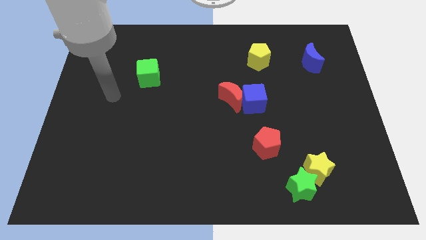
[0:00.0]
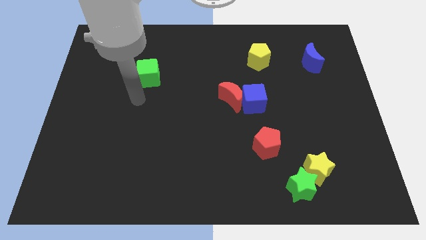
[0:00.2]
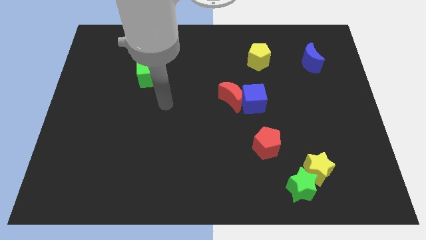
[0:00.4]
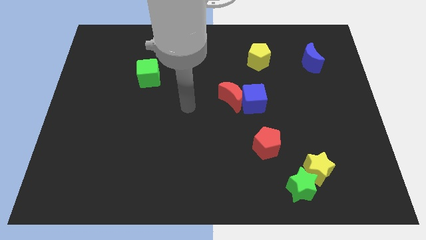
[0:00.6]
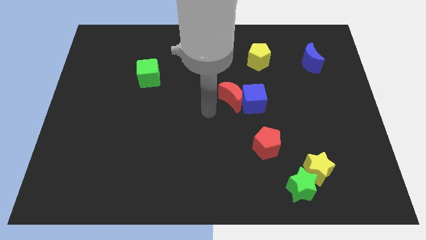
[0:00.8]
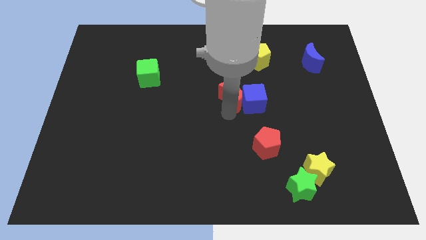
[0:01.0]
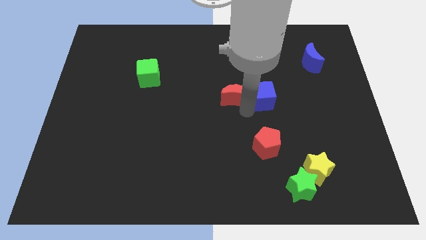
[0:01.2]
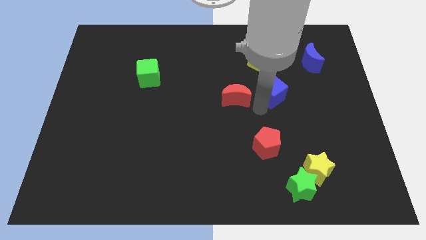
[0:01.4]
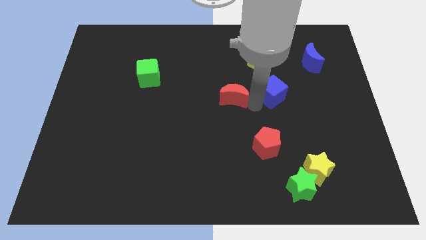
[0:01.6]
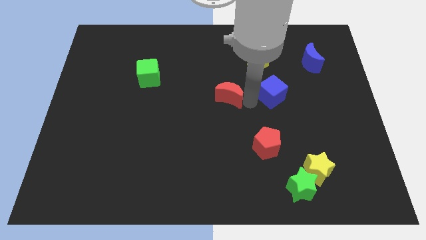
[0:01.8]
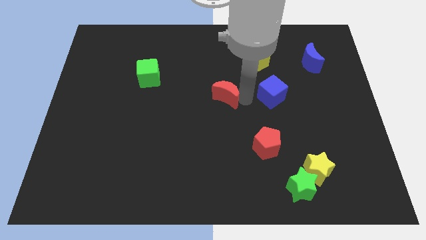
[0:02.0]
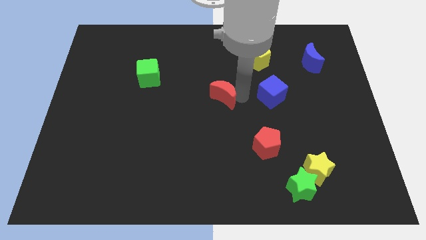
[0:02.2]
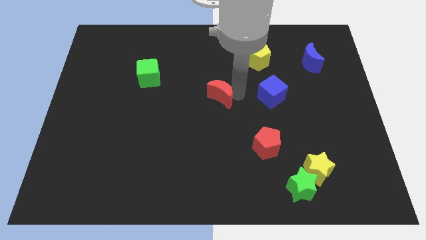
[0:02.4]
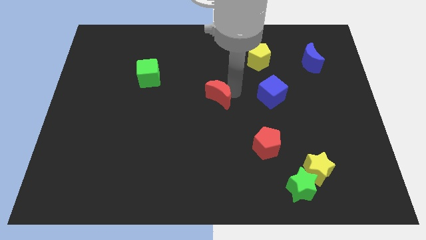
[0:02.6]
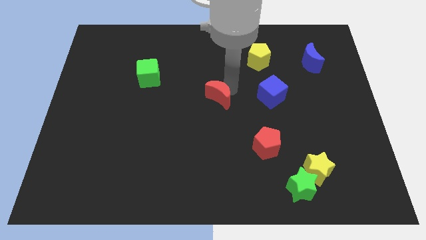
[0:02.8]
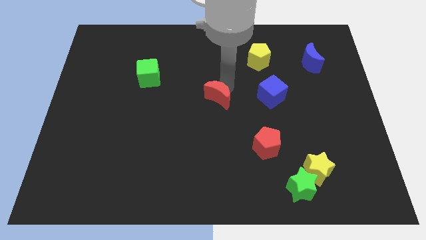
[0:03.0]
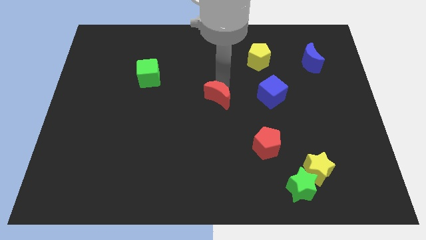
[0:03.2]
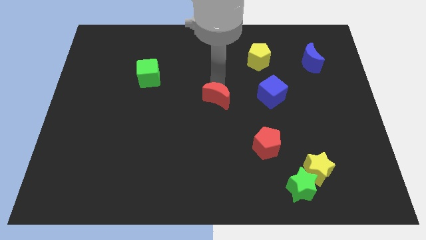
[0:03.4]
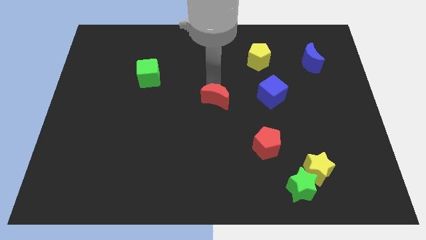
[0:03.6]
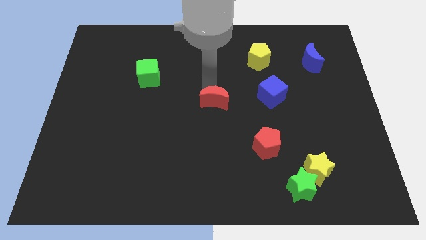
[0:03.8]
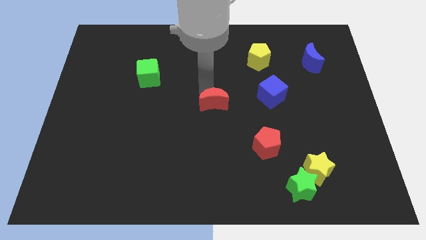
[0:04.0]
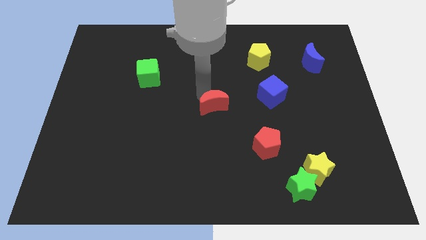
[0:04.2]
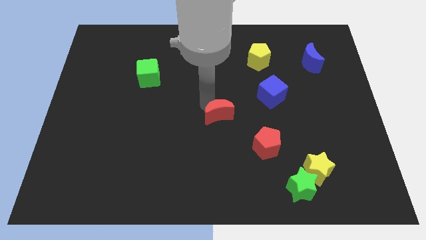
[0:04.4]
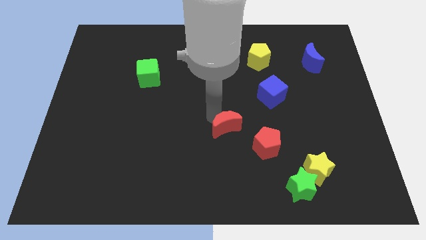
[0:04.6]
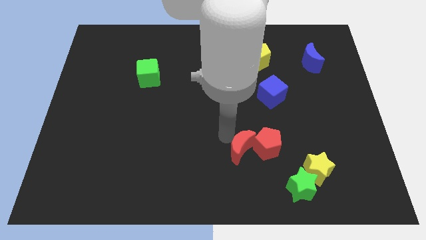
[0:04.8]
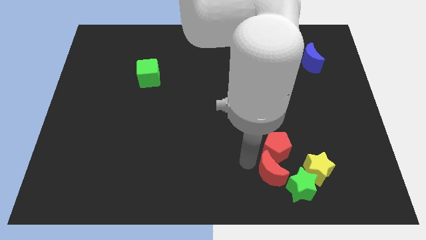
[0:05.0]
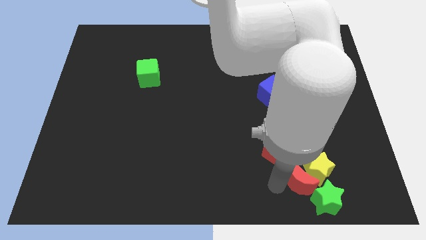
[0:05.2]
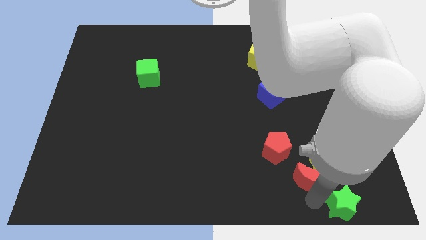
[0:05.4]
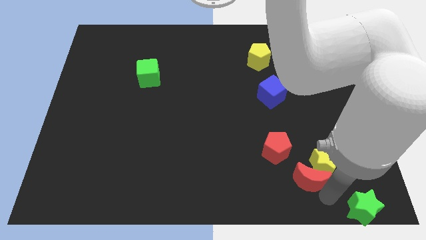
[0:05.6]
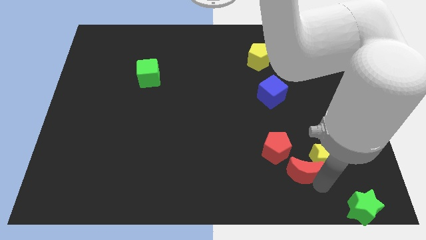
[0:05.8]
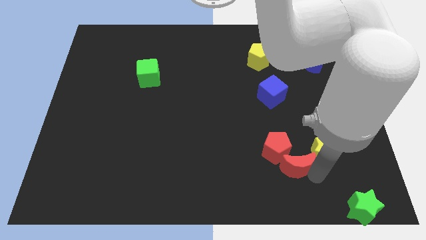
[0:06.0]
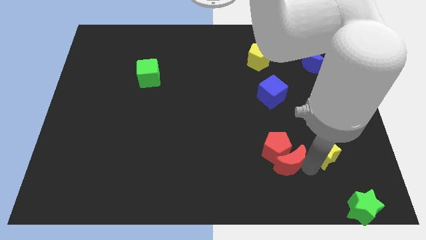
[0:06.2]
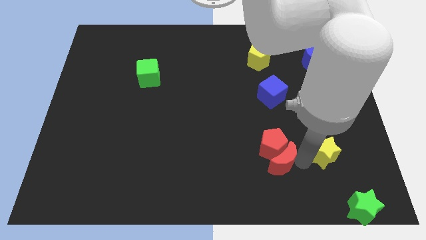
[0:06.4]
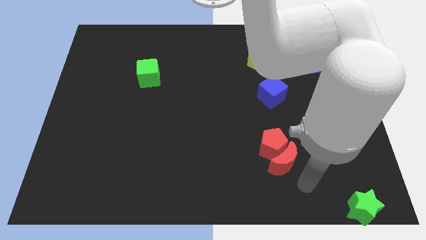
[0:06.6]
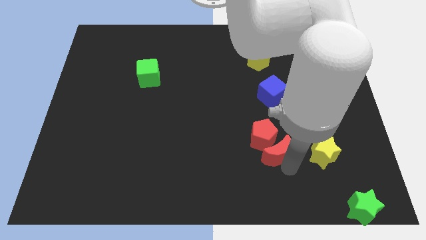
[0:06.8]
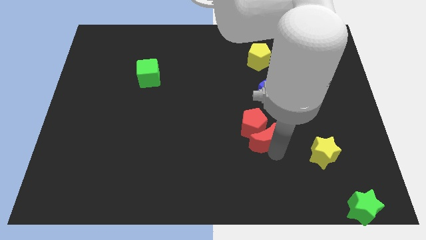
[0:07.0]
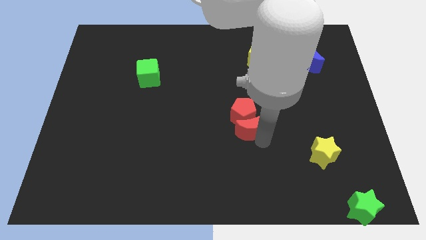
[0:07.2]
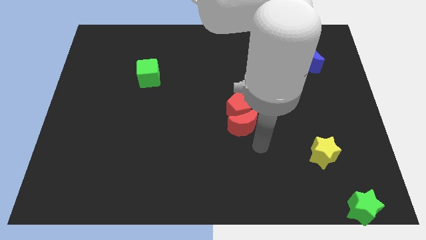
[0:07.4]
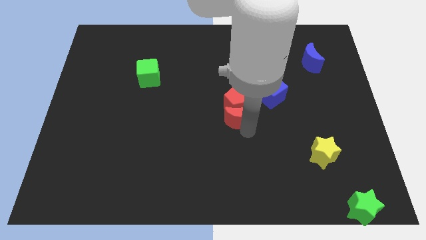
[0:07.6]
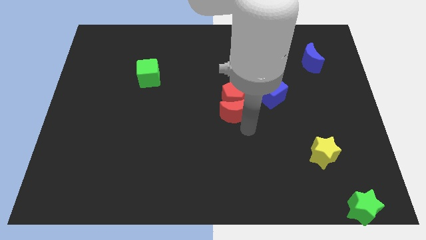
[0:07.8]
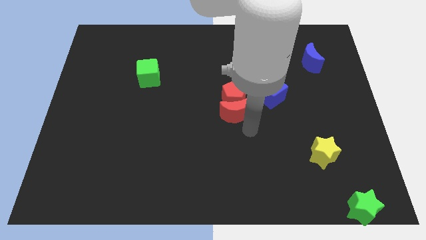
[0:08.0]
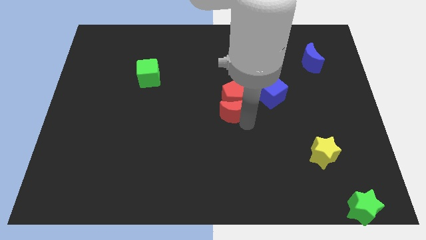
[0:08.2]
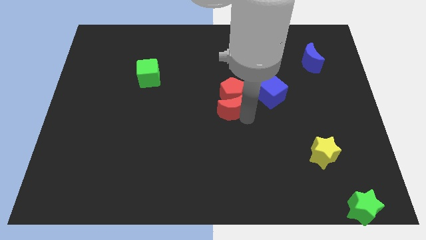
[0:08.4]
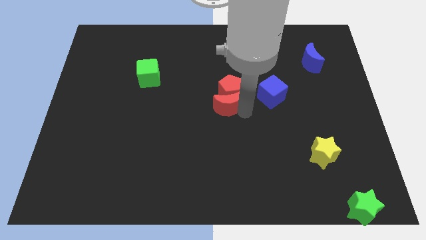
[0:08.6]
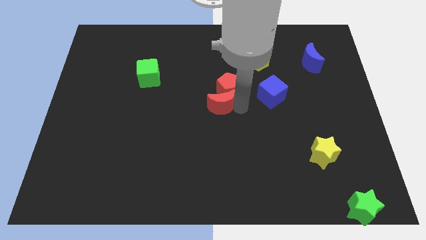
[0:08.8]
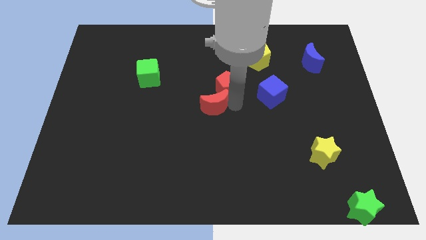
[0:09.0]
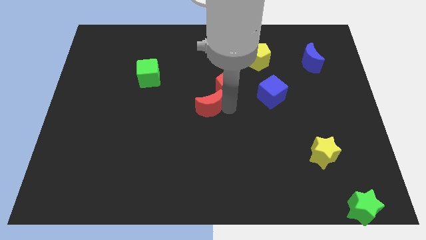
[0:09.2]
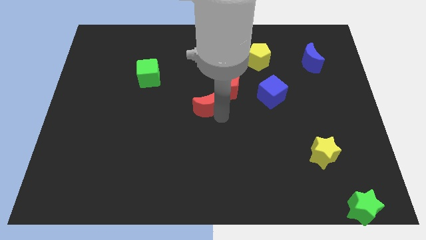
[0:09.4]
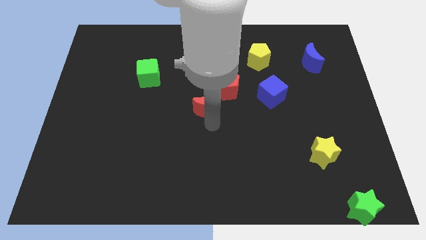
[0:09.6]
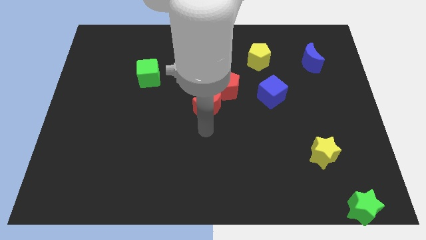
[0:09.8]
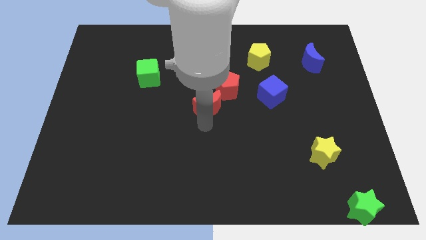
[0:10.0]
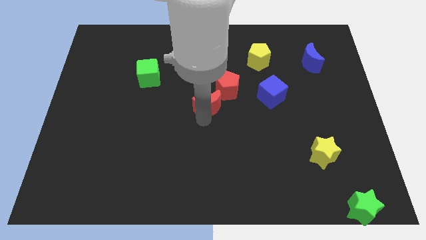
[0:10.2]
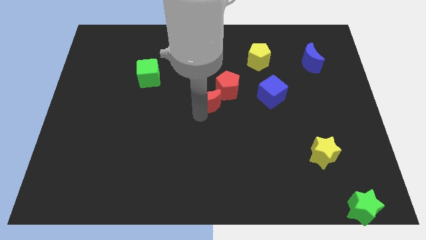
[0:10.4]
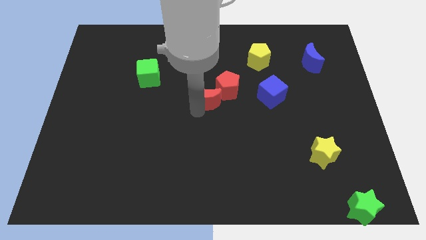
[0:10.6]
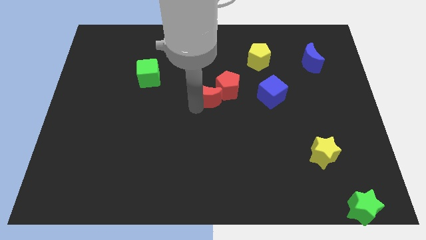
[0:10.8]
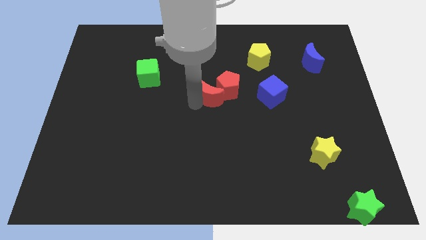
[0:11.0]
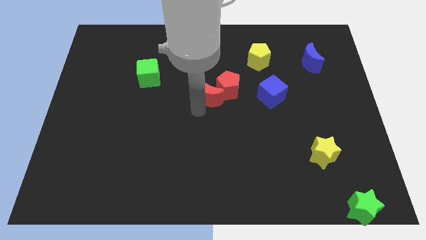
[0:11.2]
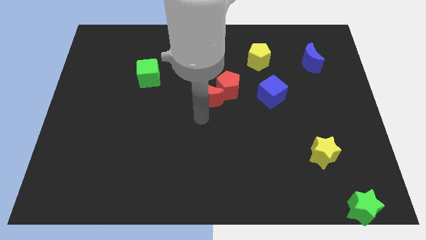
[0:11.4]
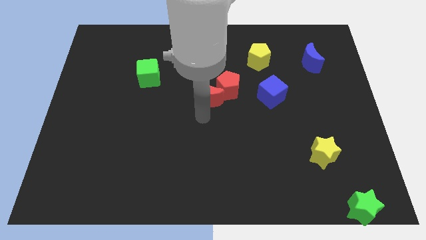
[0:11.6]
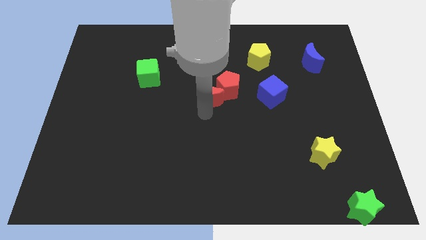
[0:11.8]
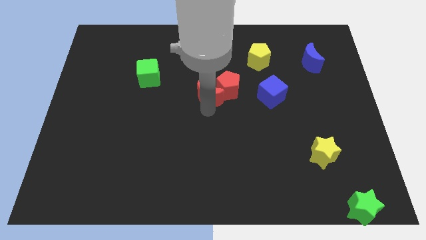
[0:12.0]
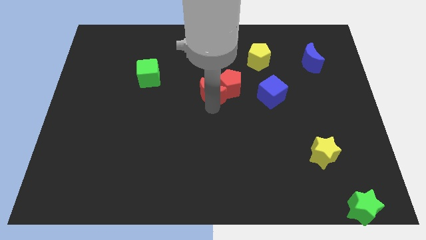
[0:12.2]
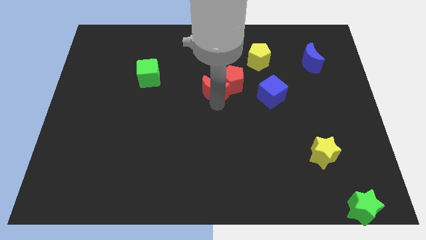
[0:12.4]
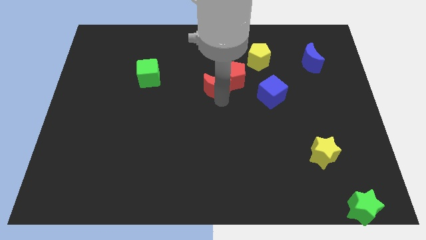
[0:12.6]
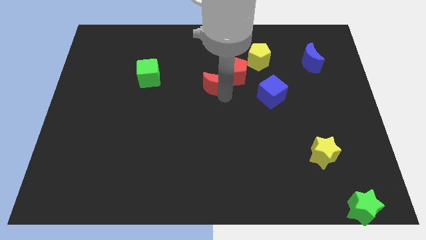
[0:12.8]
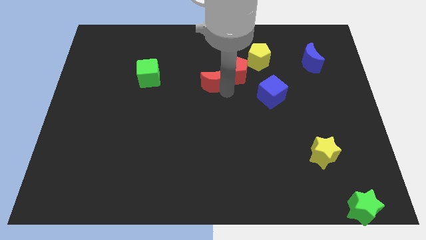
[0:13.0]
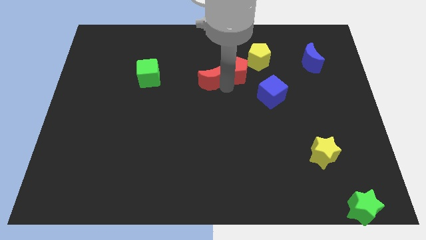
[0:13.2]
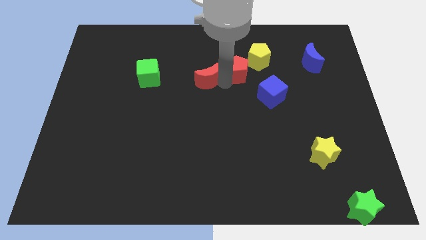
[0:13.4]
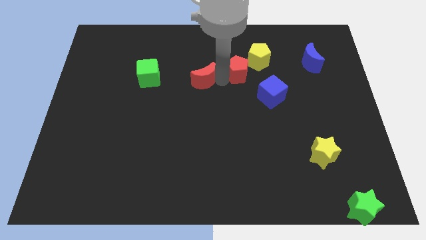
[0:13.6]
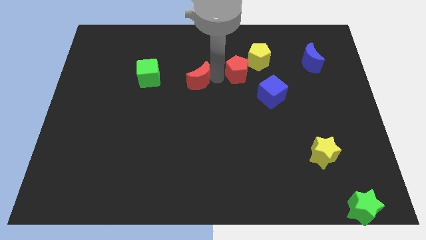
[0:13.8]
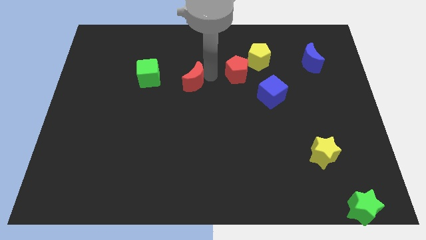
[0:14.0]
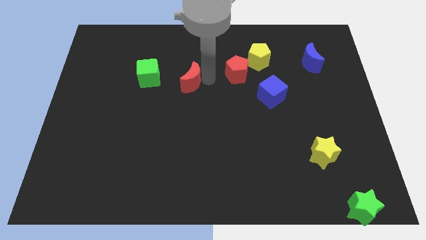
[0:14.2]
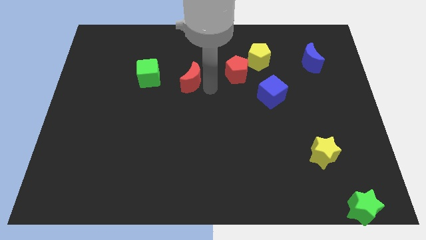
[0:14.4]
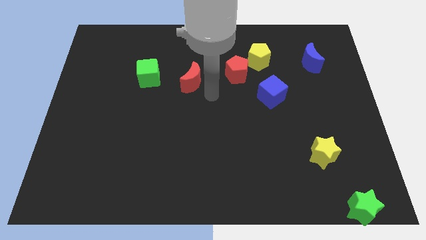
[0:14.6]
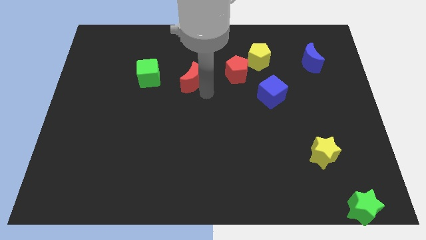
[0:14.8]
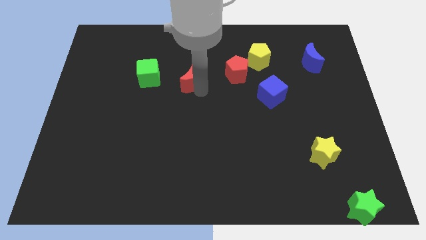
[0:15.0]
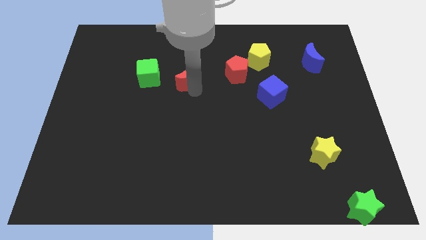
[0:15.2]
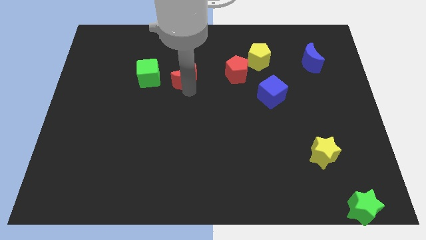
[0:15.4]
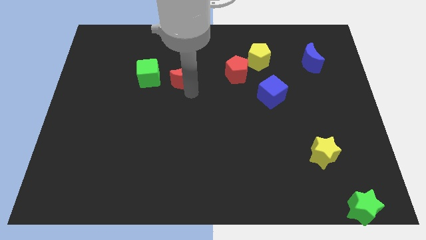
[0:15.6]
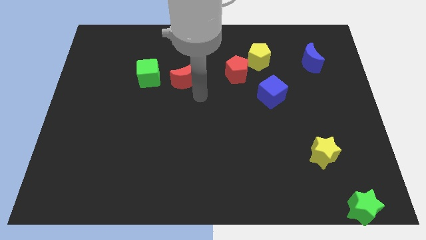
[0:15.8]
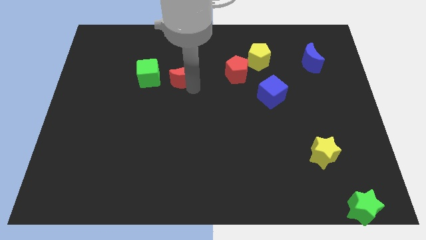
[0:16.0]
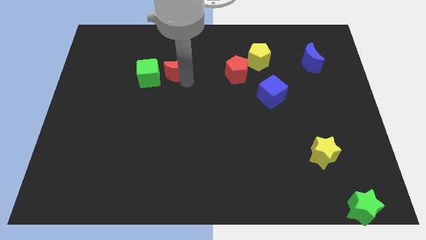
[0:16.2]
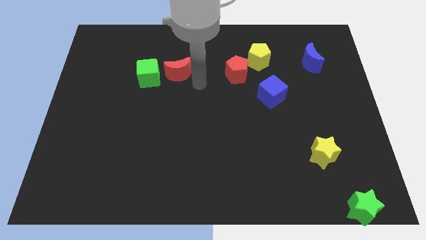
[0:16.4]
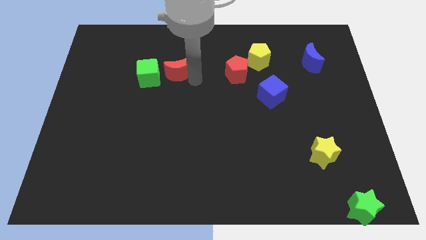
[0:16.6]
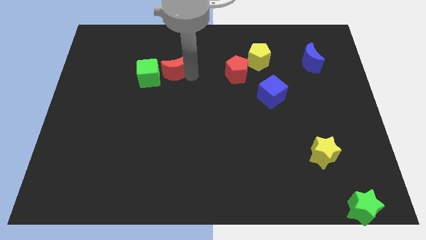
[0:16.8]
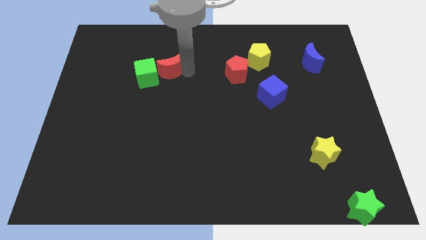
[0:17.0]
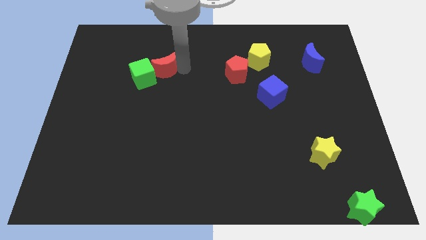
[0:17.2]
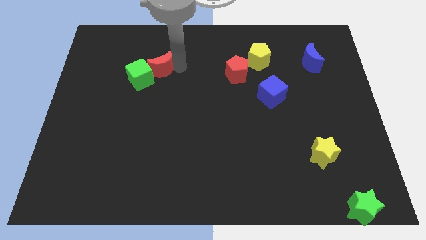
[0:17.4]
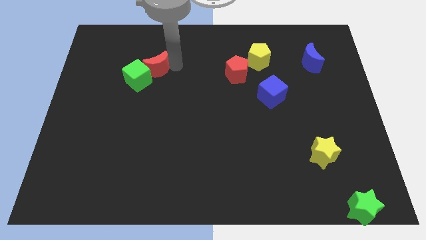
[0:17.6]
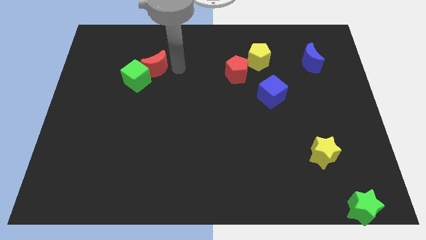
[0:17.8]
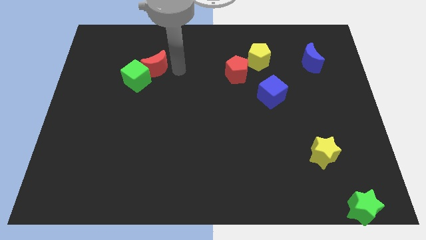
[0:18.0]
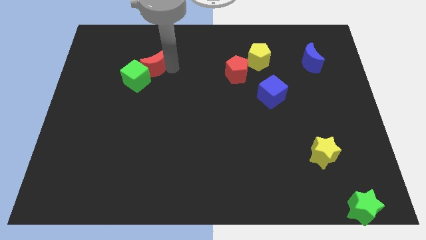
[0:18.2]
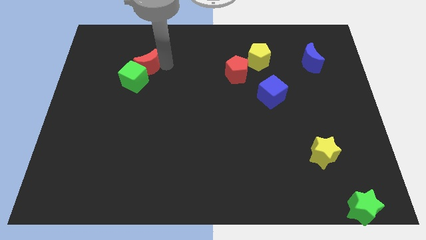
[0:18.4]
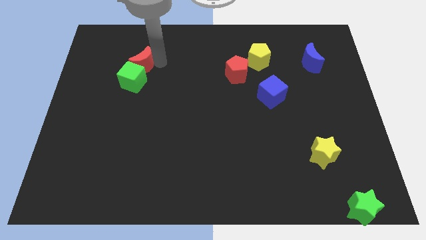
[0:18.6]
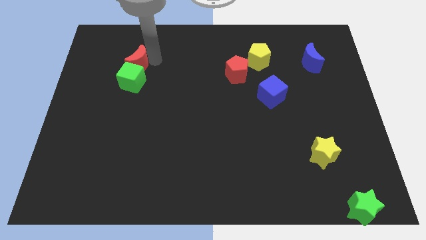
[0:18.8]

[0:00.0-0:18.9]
slide the red moon to the top left of the green cube
